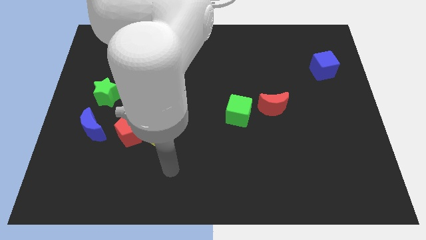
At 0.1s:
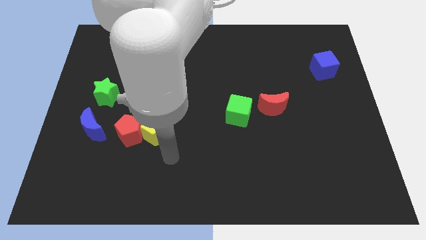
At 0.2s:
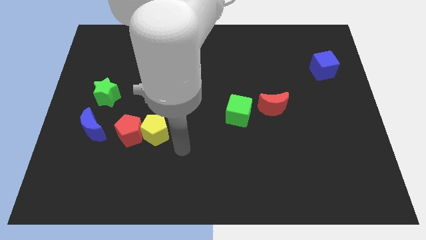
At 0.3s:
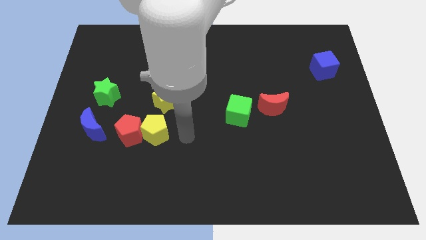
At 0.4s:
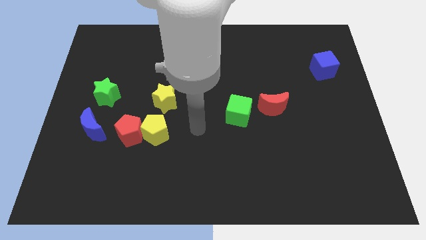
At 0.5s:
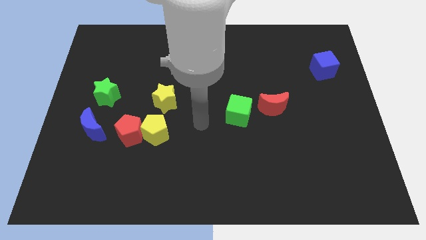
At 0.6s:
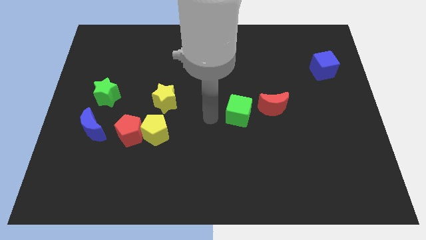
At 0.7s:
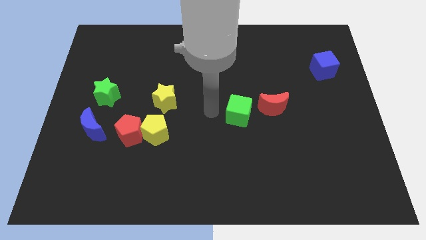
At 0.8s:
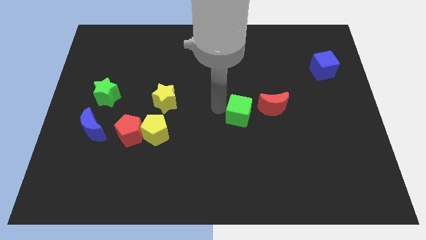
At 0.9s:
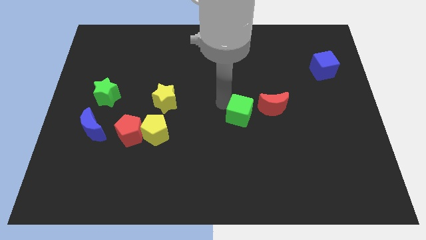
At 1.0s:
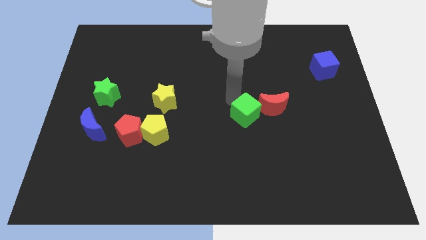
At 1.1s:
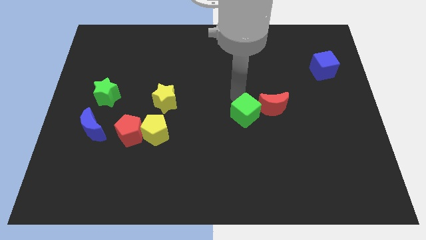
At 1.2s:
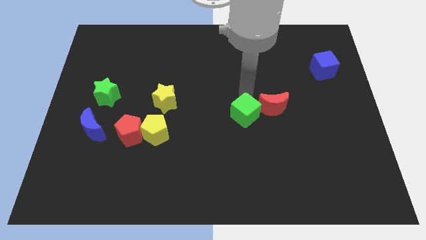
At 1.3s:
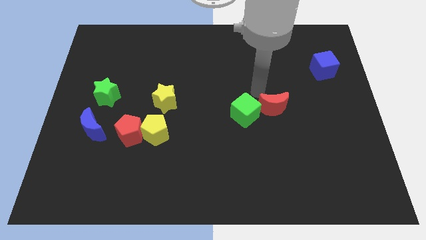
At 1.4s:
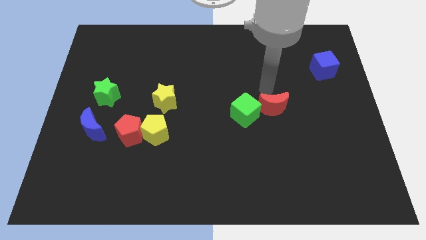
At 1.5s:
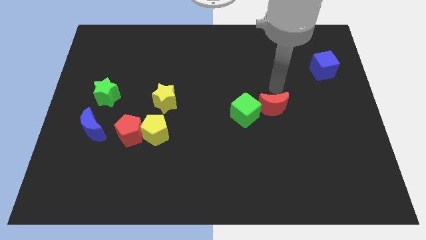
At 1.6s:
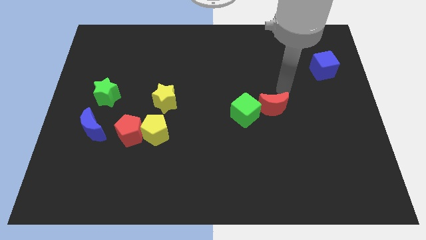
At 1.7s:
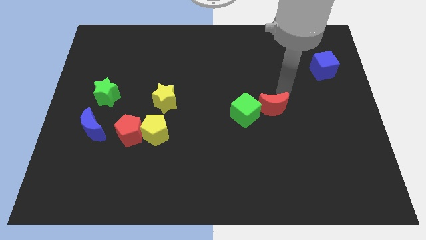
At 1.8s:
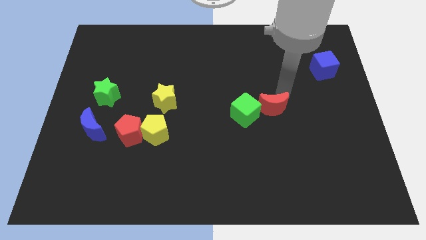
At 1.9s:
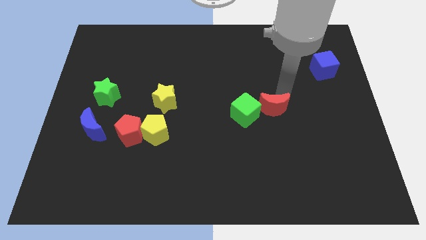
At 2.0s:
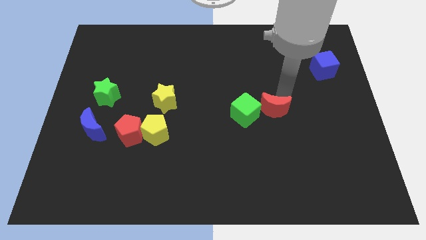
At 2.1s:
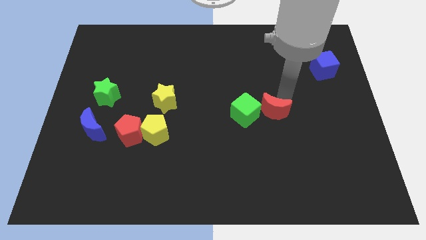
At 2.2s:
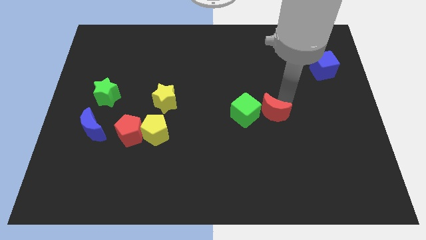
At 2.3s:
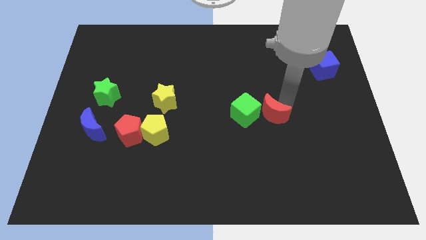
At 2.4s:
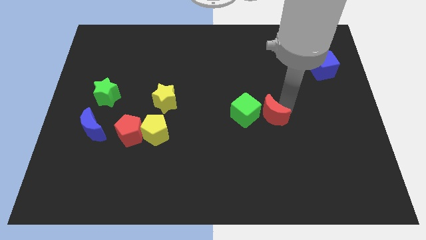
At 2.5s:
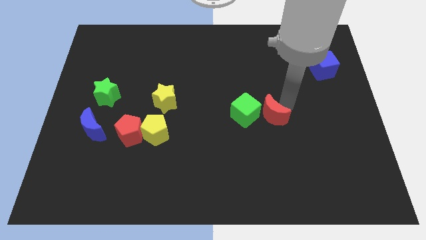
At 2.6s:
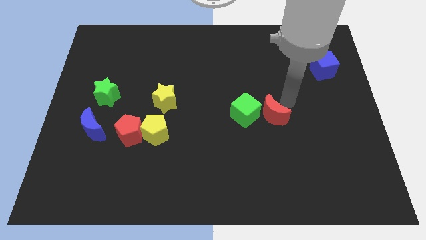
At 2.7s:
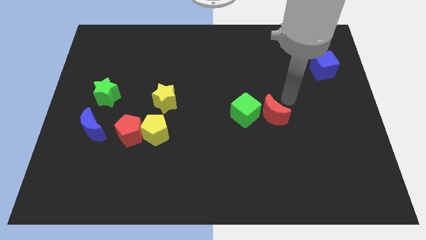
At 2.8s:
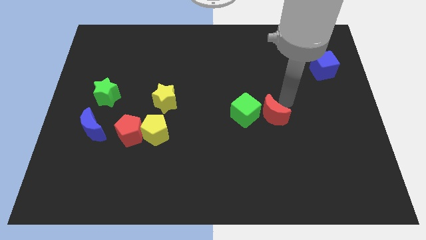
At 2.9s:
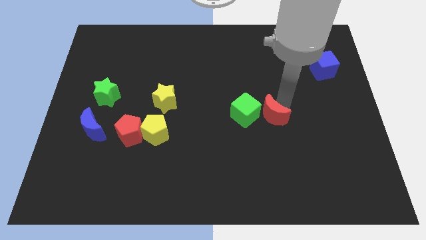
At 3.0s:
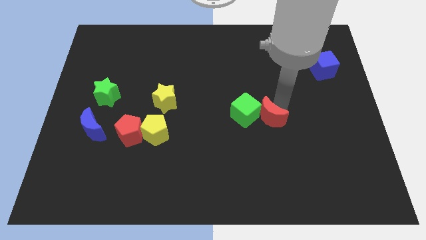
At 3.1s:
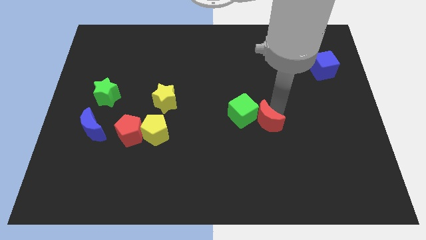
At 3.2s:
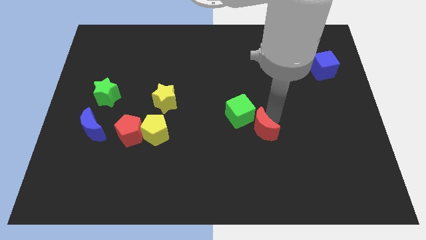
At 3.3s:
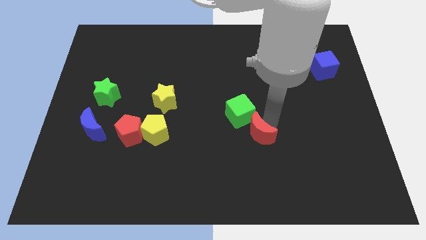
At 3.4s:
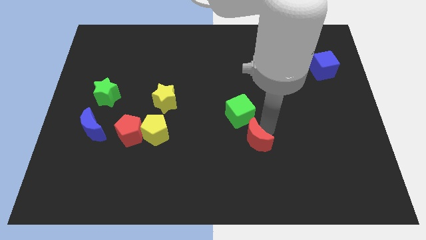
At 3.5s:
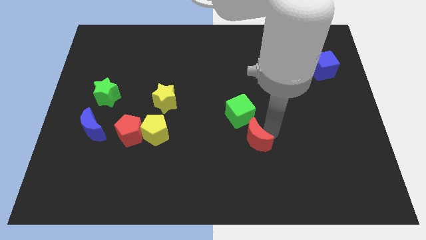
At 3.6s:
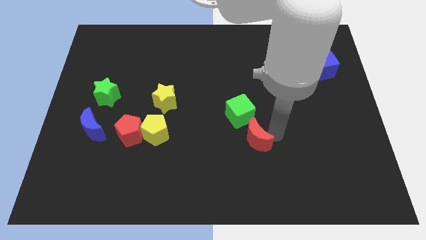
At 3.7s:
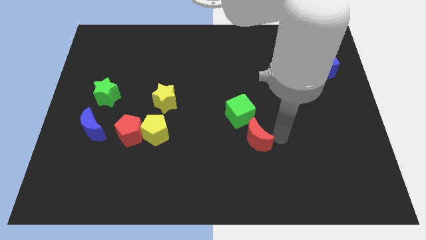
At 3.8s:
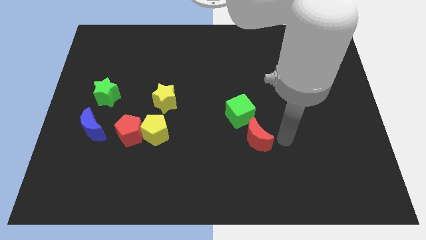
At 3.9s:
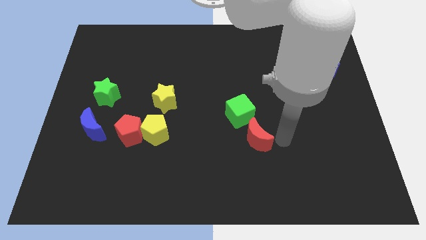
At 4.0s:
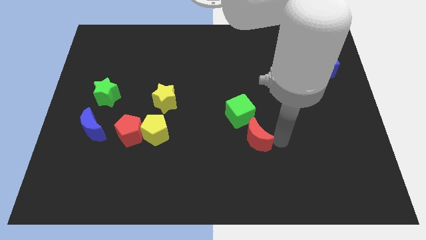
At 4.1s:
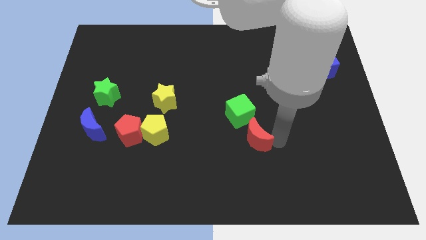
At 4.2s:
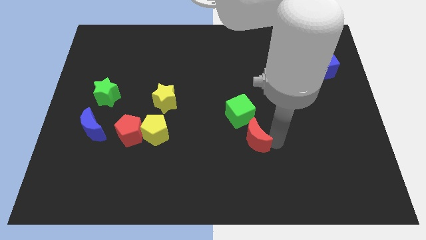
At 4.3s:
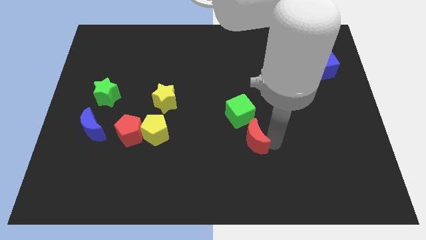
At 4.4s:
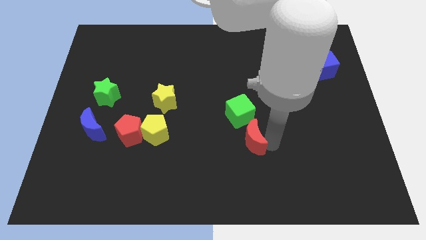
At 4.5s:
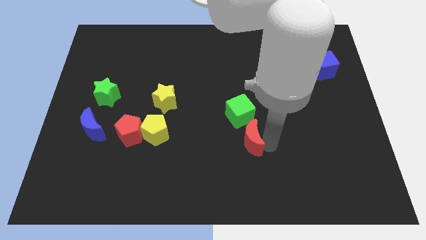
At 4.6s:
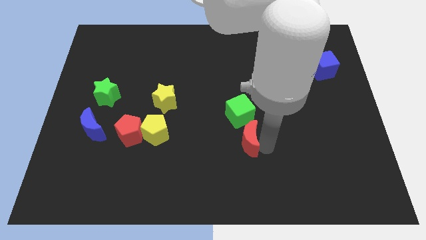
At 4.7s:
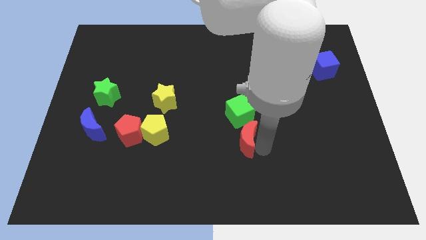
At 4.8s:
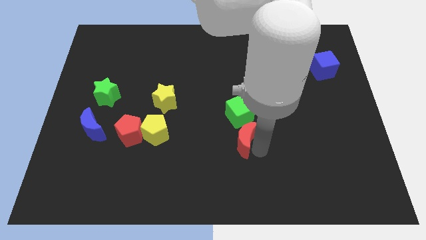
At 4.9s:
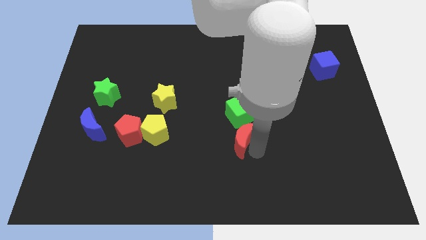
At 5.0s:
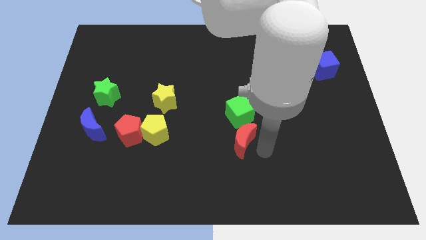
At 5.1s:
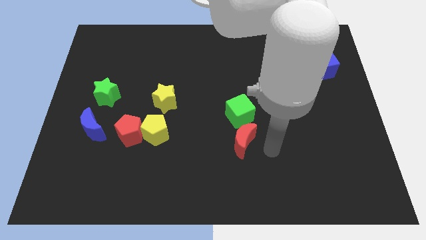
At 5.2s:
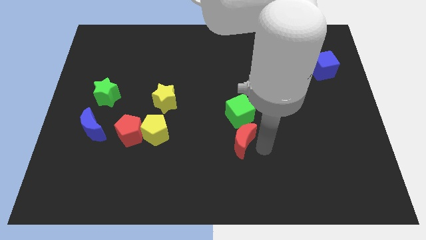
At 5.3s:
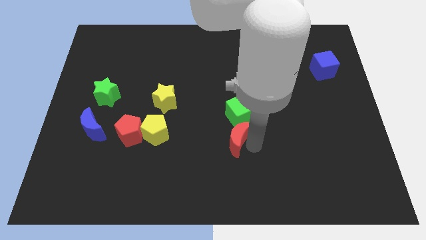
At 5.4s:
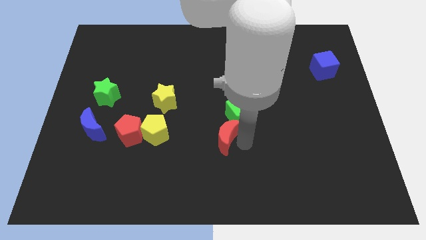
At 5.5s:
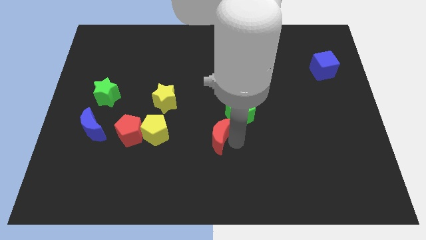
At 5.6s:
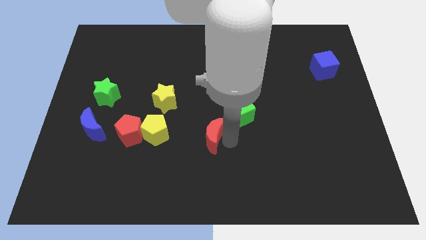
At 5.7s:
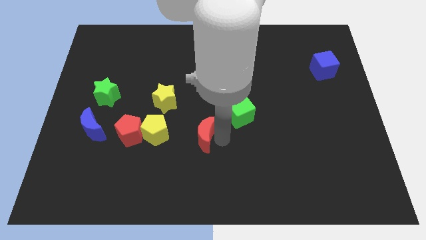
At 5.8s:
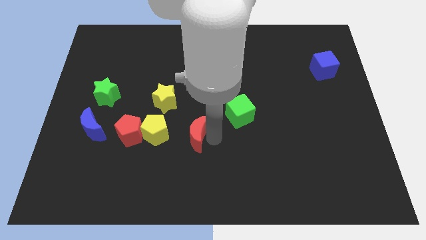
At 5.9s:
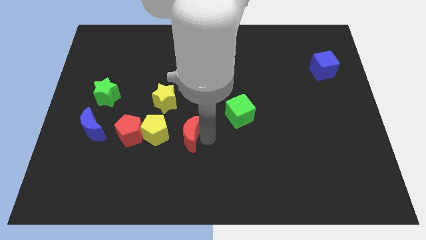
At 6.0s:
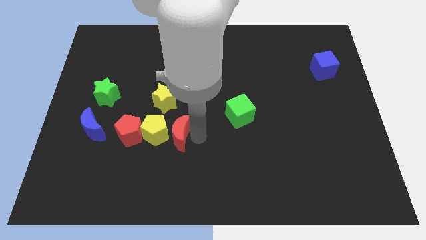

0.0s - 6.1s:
slide the red moon next to the yellow pentagon
